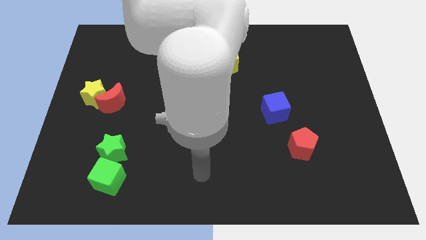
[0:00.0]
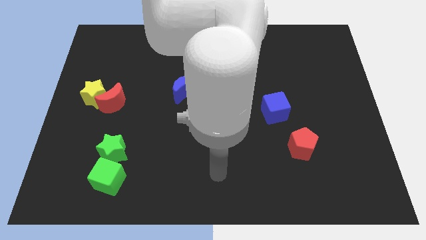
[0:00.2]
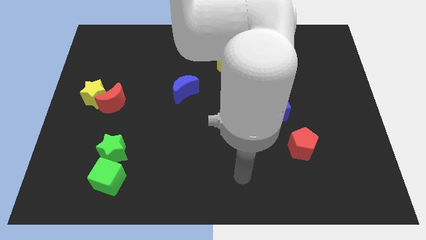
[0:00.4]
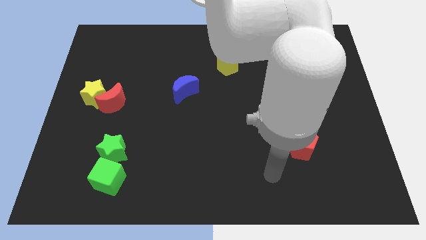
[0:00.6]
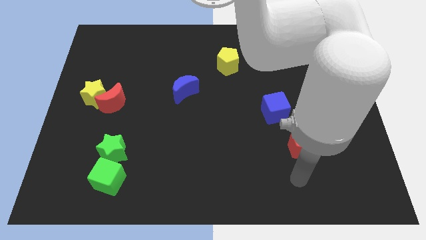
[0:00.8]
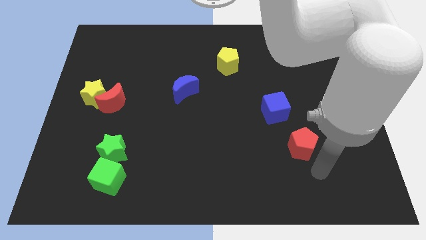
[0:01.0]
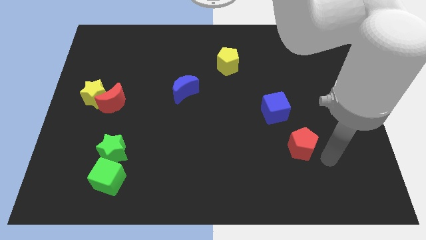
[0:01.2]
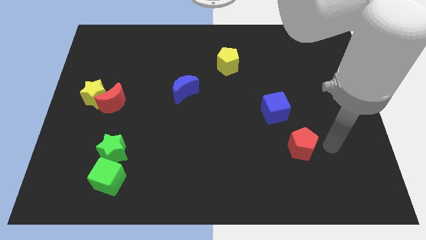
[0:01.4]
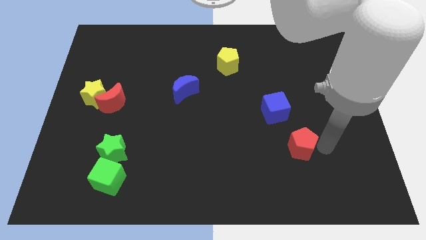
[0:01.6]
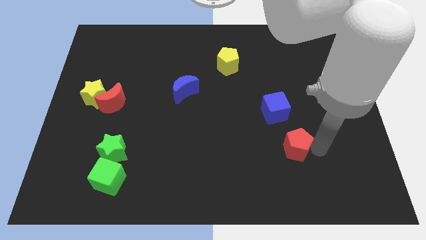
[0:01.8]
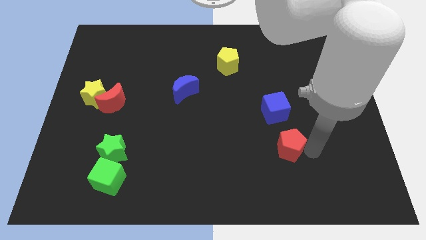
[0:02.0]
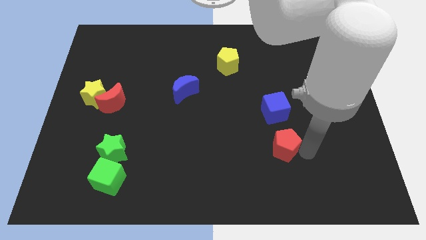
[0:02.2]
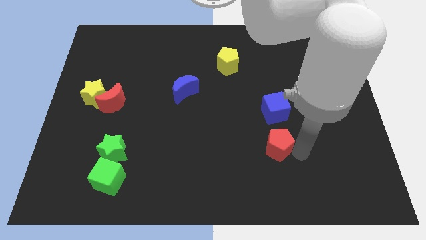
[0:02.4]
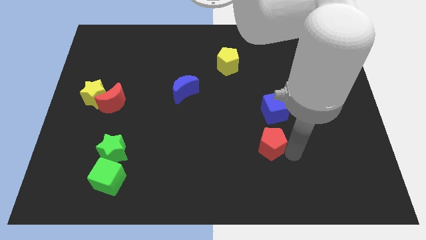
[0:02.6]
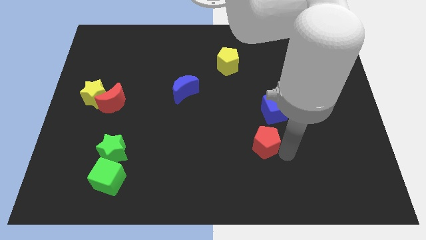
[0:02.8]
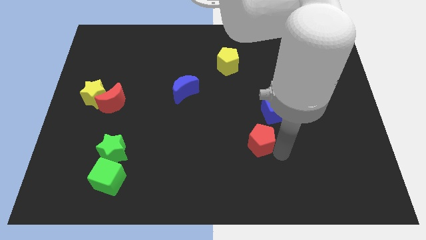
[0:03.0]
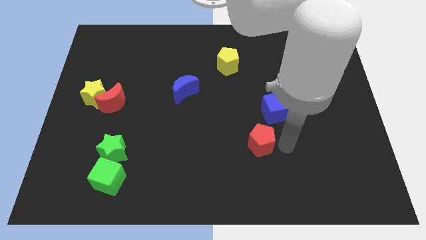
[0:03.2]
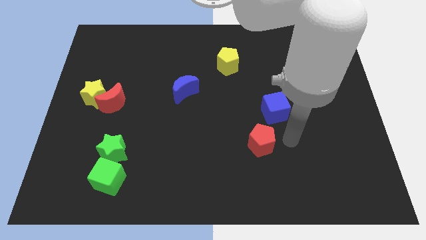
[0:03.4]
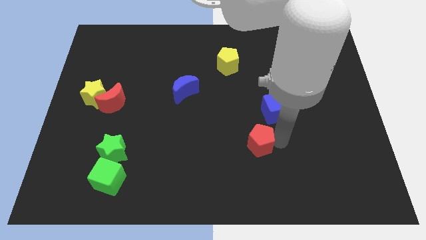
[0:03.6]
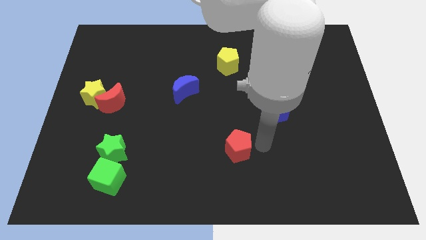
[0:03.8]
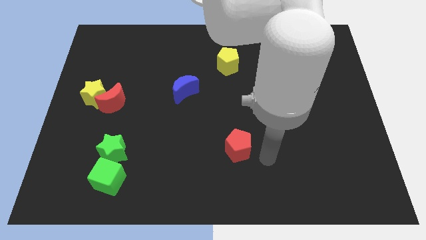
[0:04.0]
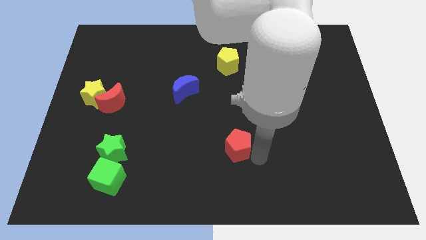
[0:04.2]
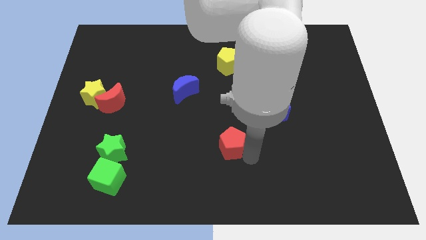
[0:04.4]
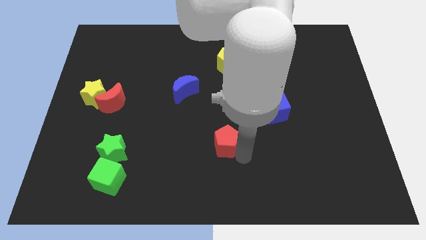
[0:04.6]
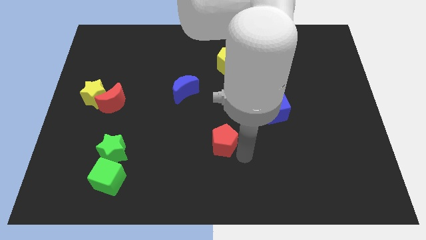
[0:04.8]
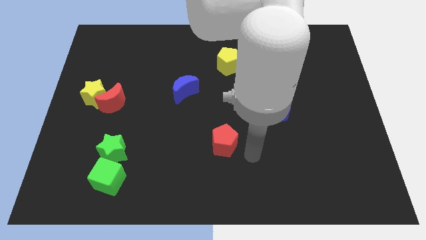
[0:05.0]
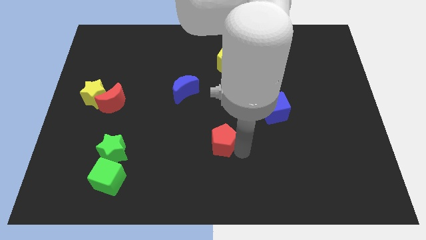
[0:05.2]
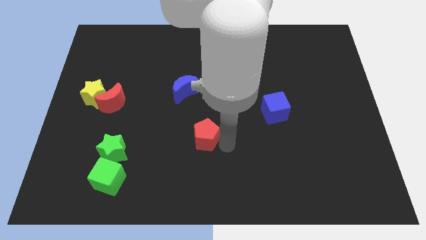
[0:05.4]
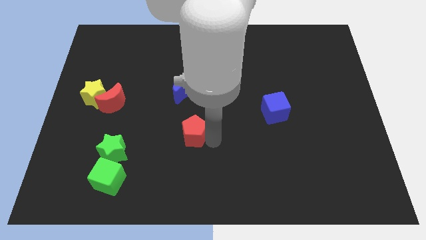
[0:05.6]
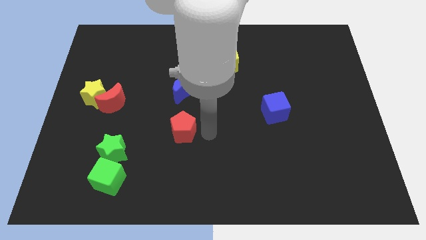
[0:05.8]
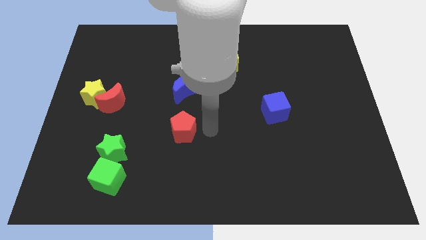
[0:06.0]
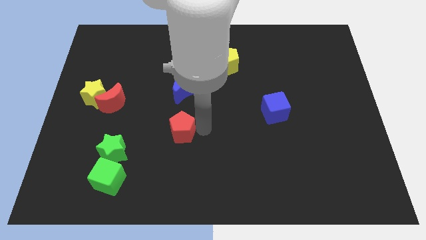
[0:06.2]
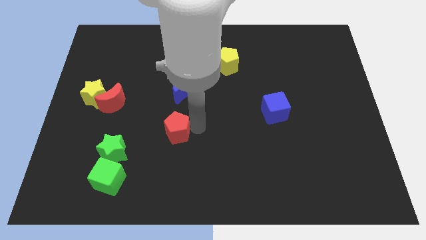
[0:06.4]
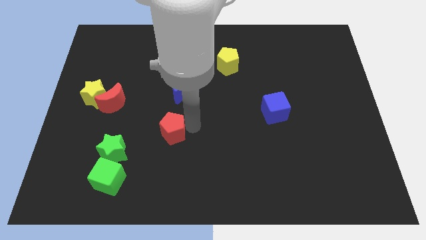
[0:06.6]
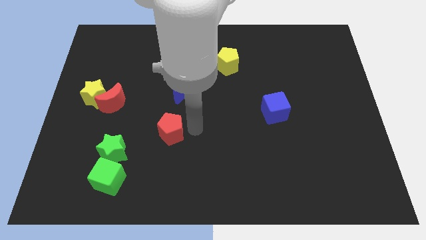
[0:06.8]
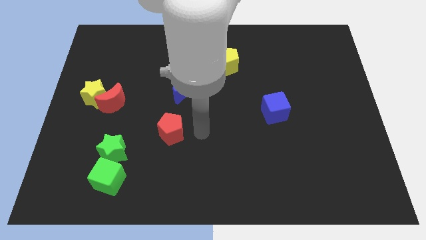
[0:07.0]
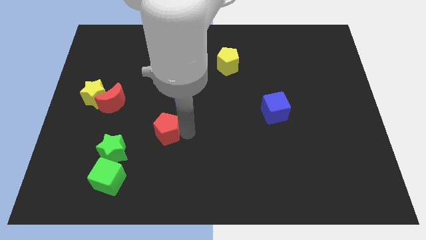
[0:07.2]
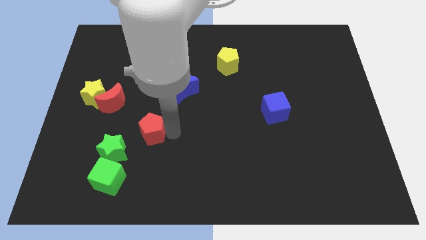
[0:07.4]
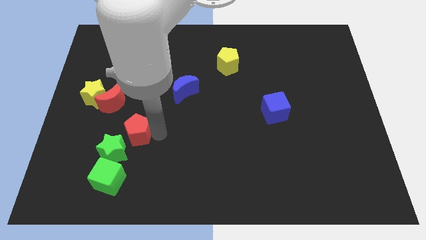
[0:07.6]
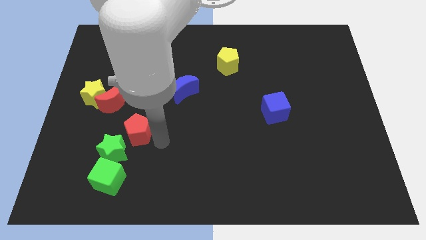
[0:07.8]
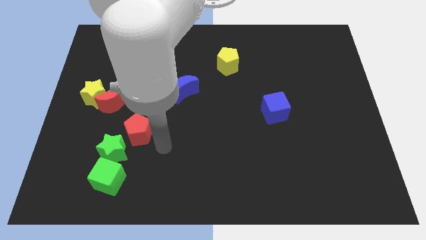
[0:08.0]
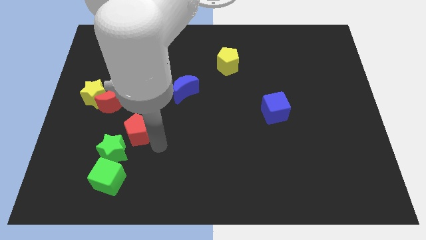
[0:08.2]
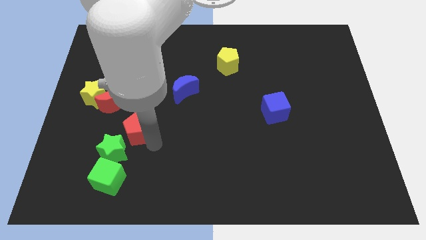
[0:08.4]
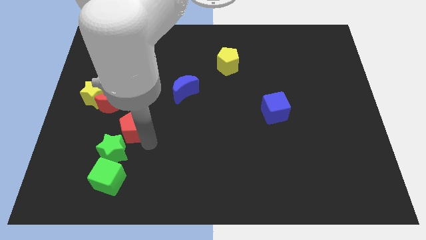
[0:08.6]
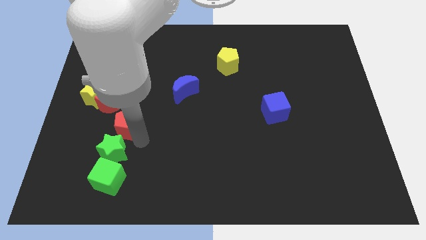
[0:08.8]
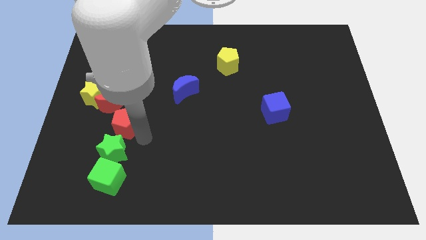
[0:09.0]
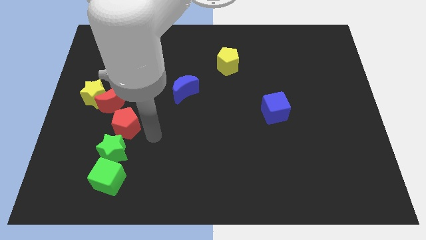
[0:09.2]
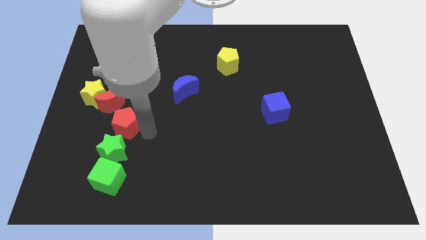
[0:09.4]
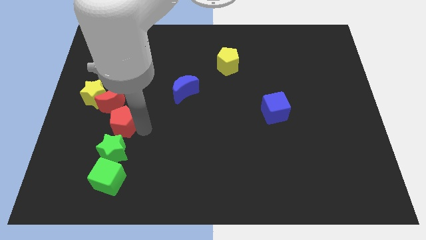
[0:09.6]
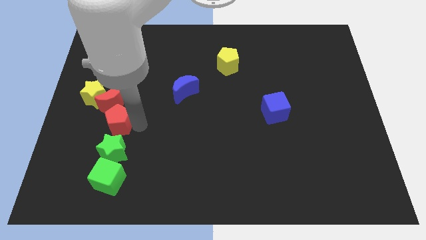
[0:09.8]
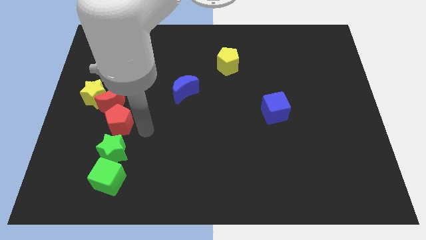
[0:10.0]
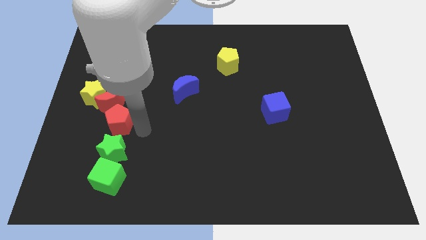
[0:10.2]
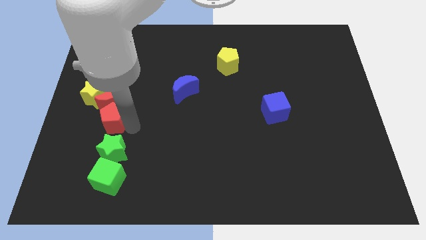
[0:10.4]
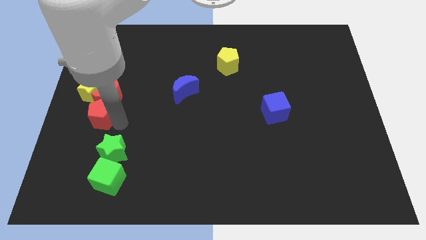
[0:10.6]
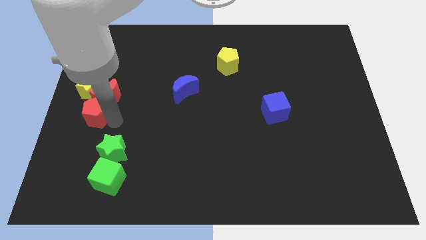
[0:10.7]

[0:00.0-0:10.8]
move the red pentagon to the left side of the board
